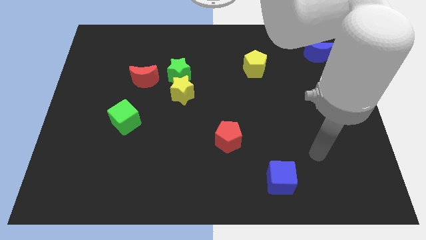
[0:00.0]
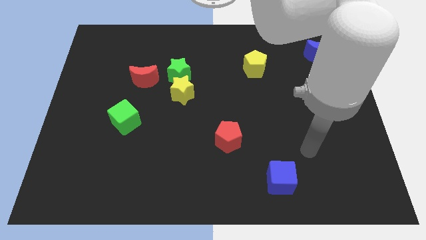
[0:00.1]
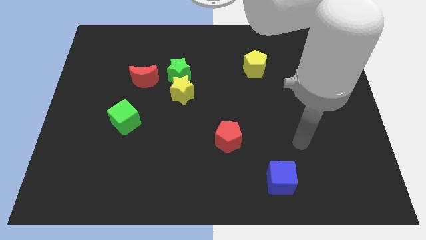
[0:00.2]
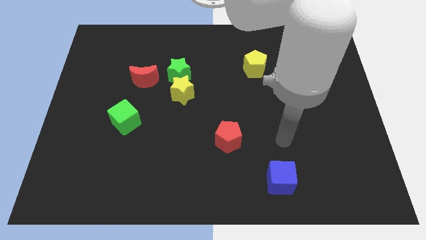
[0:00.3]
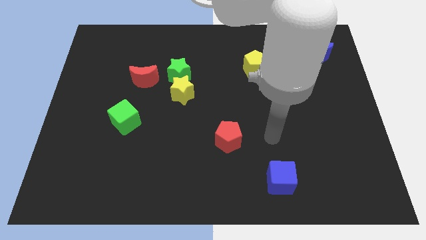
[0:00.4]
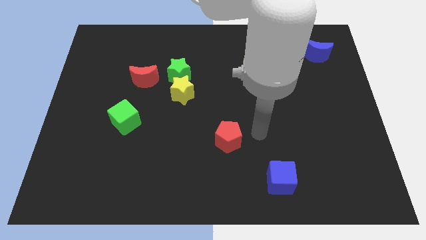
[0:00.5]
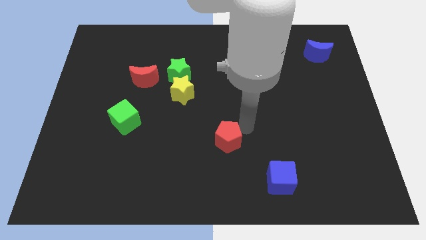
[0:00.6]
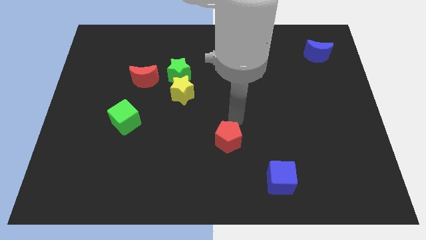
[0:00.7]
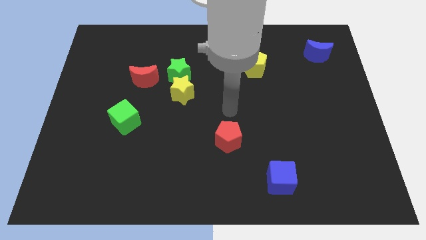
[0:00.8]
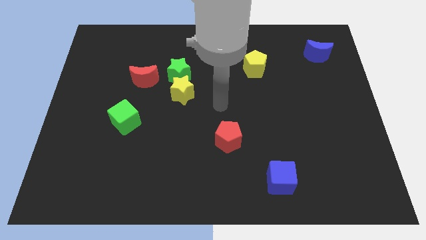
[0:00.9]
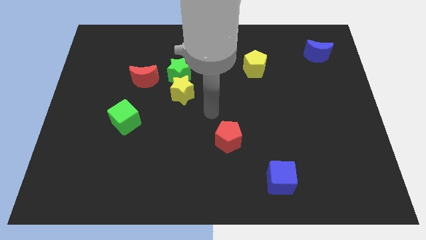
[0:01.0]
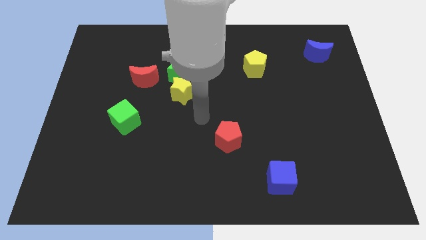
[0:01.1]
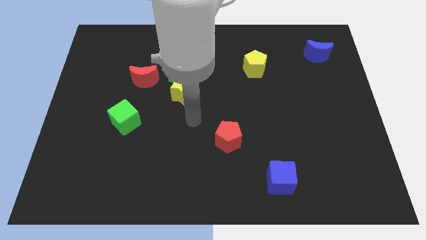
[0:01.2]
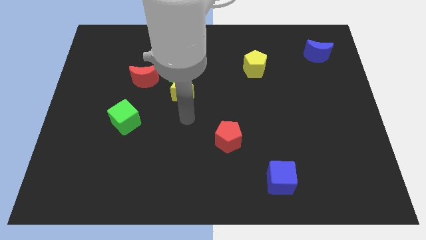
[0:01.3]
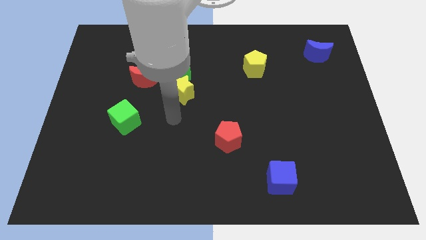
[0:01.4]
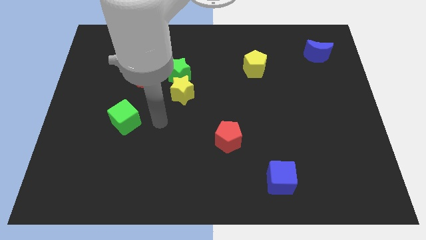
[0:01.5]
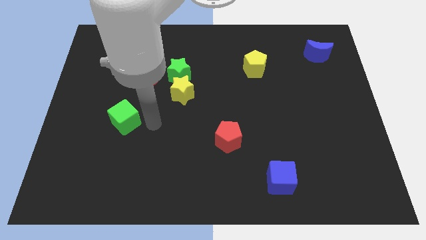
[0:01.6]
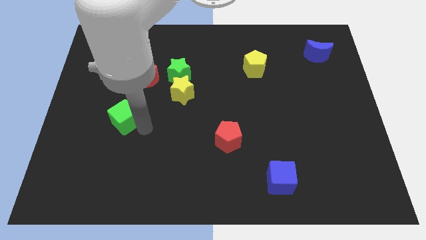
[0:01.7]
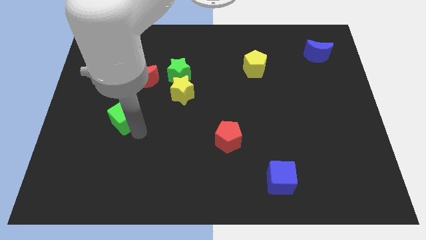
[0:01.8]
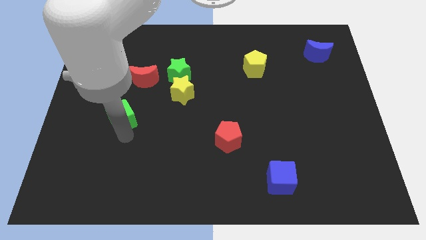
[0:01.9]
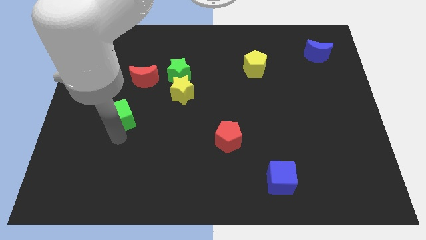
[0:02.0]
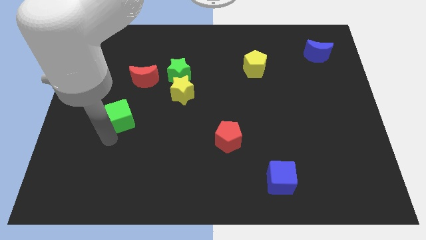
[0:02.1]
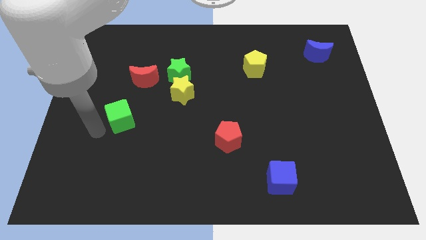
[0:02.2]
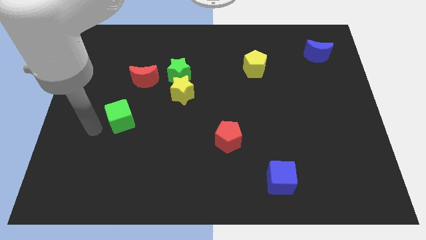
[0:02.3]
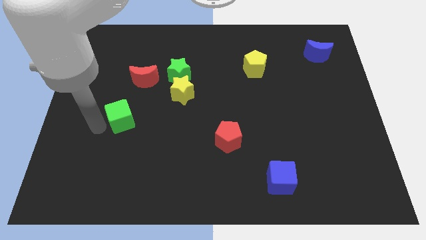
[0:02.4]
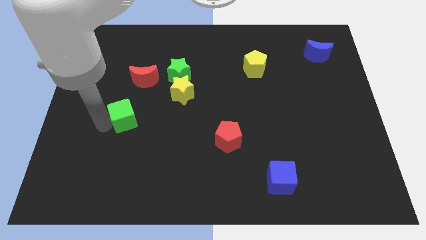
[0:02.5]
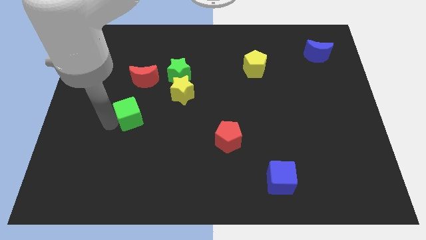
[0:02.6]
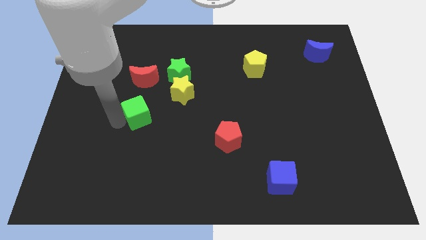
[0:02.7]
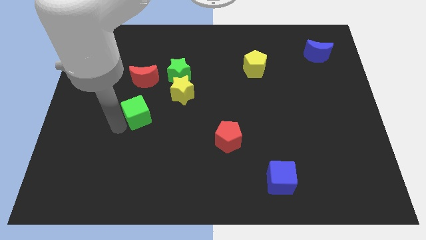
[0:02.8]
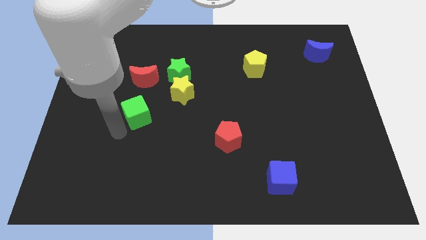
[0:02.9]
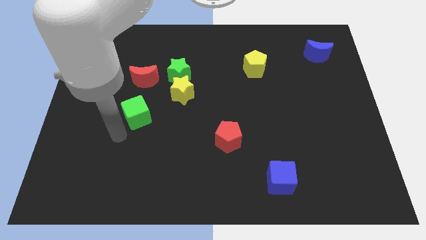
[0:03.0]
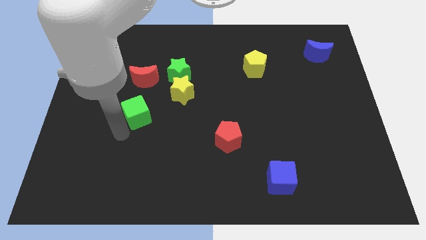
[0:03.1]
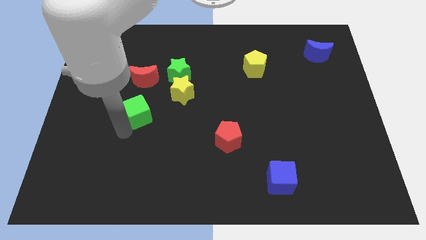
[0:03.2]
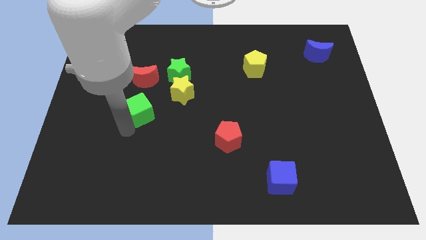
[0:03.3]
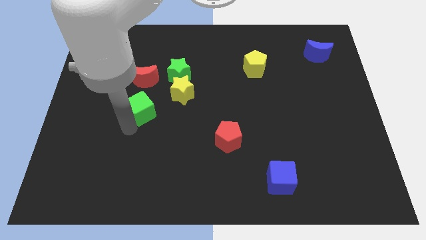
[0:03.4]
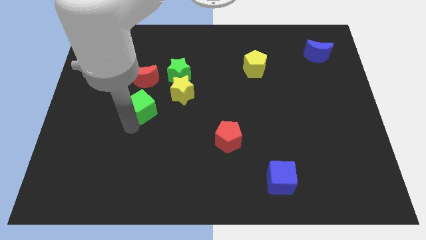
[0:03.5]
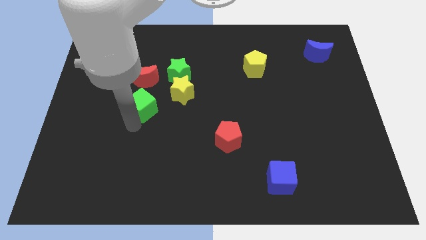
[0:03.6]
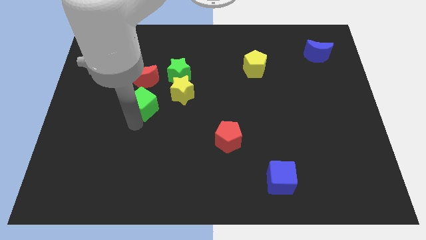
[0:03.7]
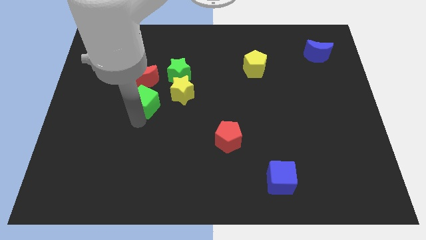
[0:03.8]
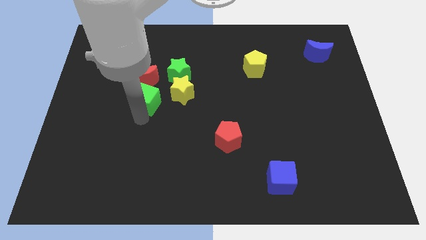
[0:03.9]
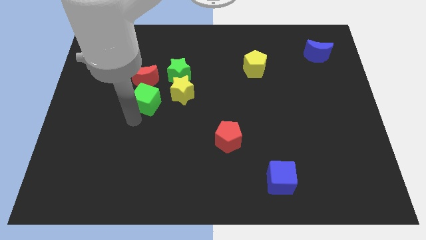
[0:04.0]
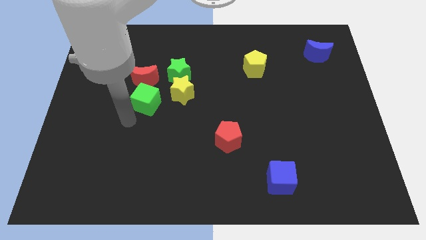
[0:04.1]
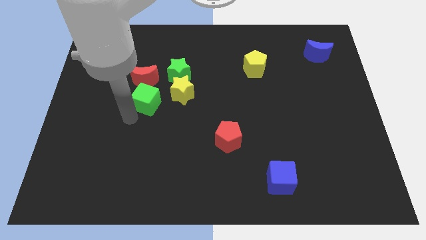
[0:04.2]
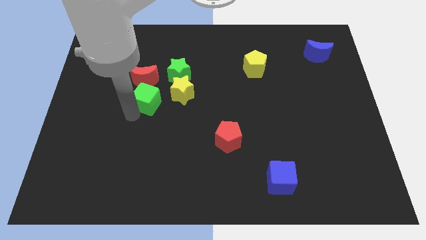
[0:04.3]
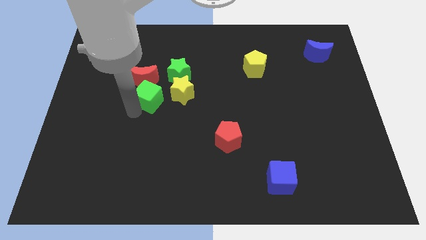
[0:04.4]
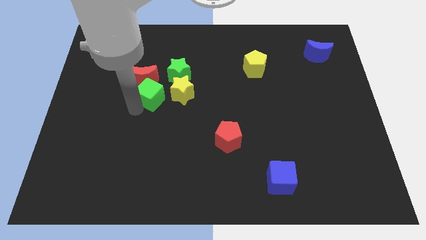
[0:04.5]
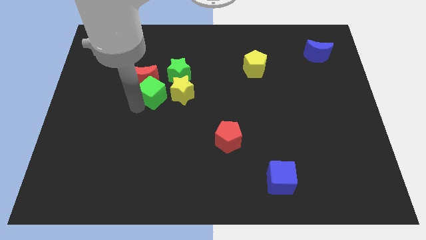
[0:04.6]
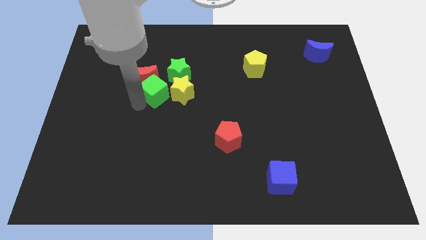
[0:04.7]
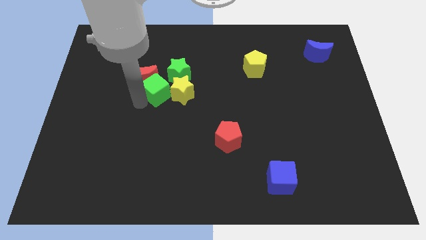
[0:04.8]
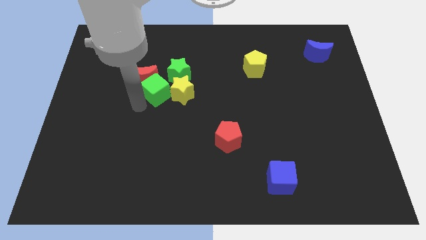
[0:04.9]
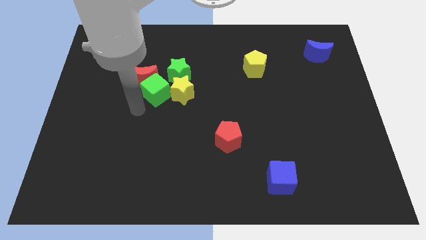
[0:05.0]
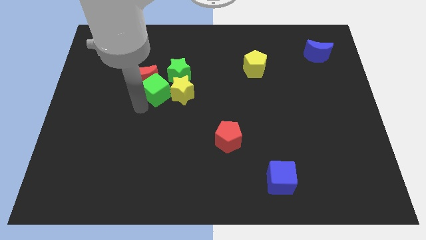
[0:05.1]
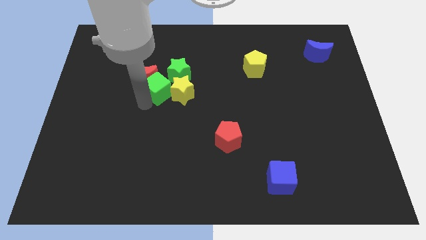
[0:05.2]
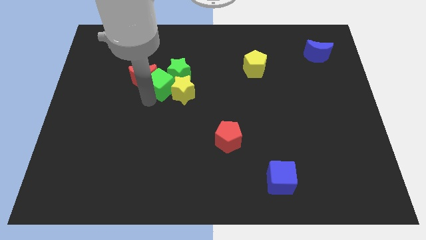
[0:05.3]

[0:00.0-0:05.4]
slide the green cube to the green star

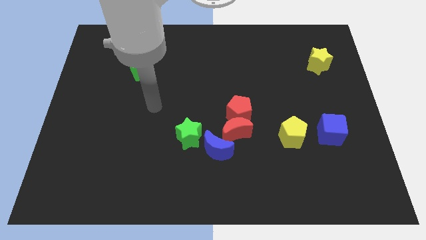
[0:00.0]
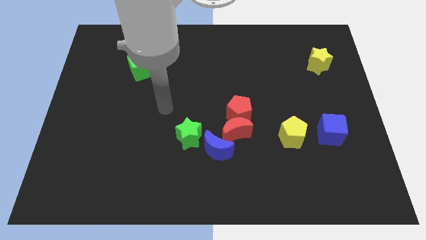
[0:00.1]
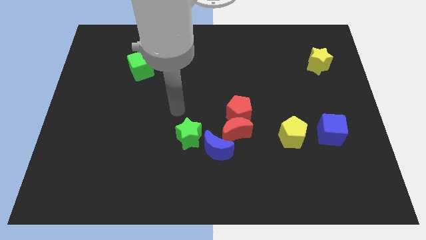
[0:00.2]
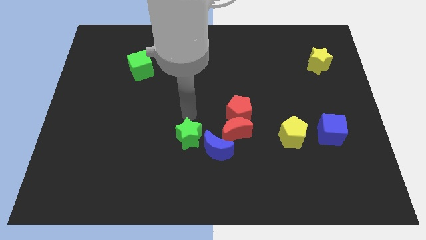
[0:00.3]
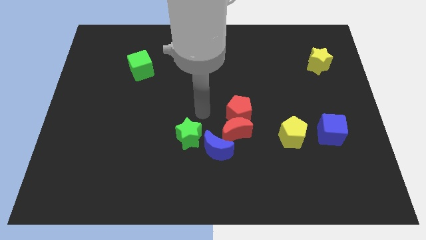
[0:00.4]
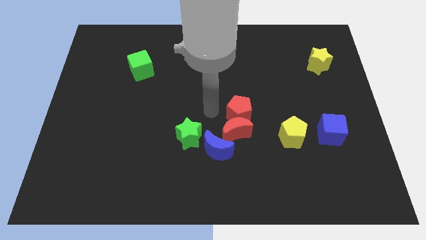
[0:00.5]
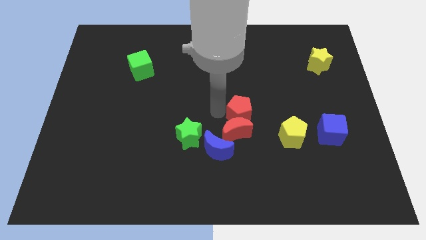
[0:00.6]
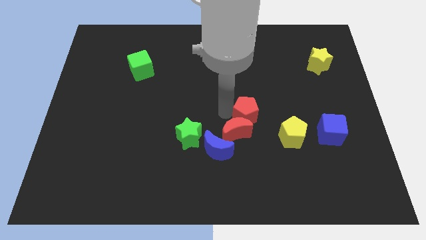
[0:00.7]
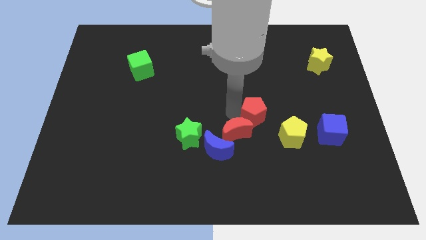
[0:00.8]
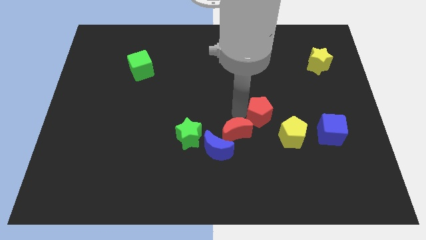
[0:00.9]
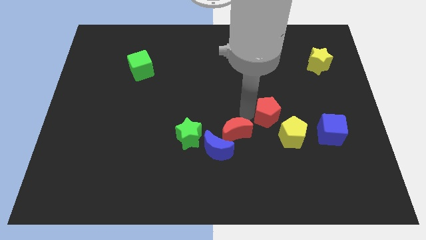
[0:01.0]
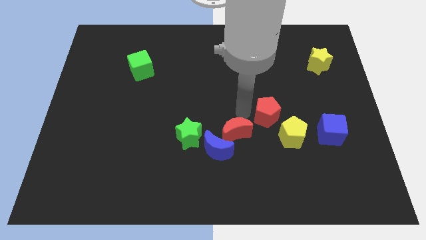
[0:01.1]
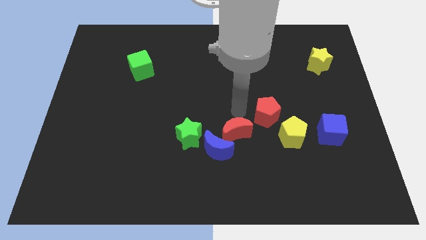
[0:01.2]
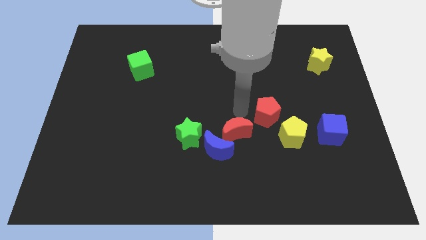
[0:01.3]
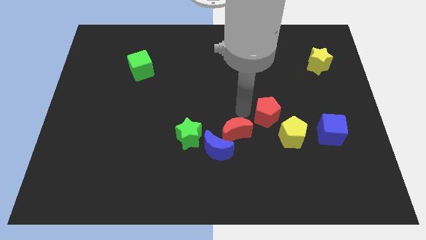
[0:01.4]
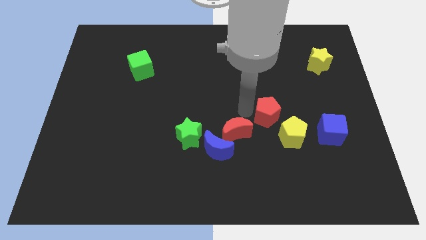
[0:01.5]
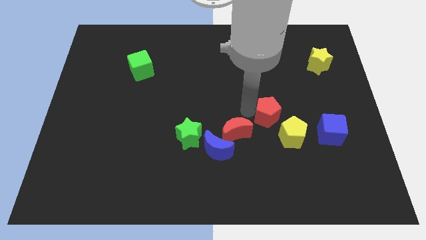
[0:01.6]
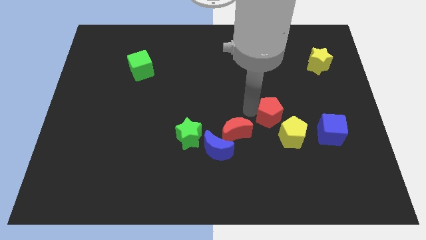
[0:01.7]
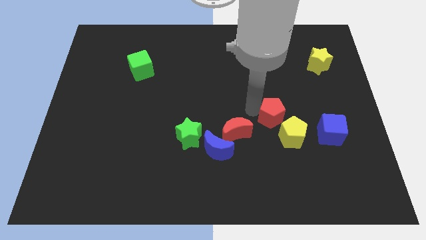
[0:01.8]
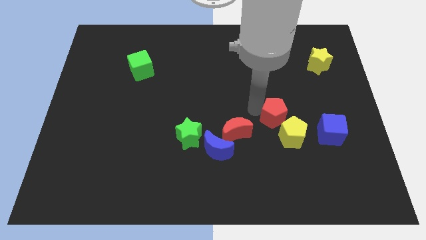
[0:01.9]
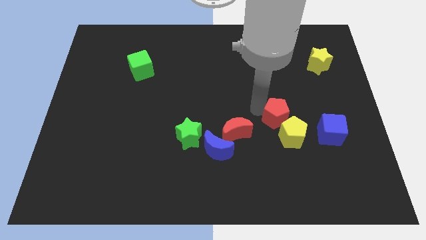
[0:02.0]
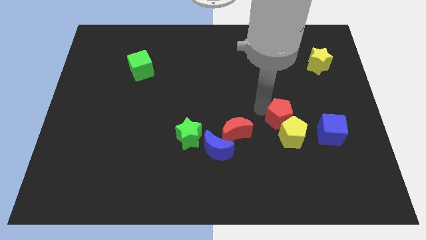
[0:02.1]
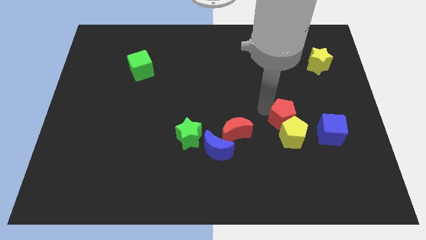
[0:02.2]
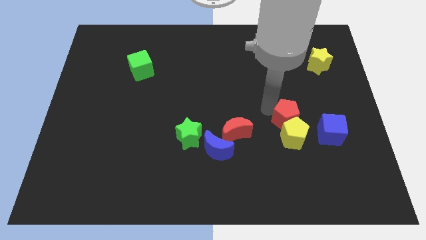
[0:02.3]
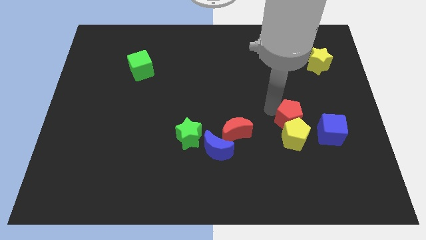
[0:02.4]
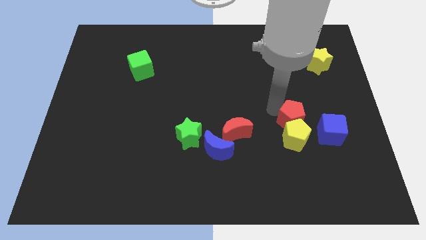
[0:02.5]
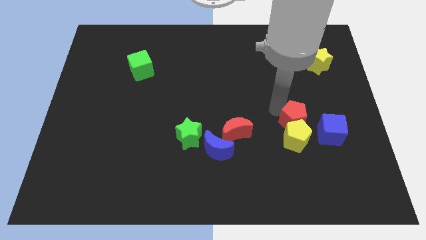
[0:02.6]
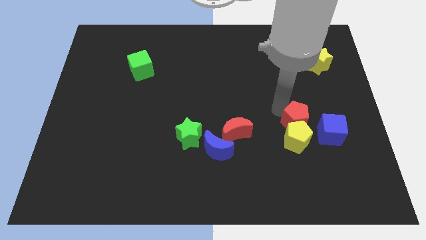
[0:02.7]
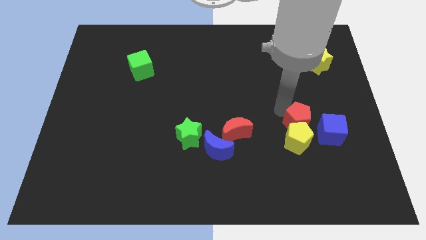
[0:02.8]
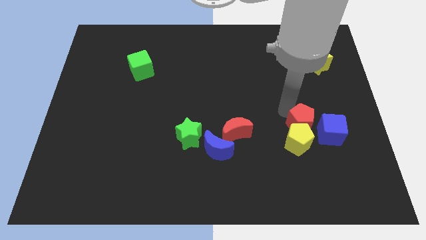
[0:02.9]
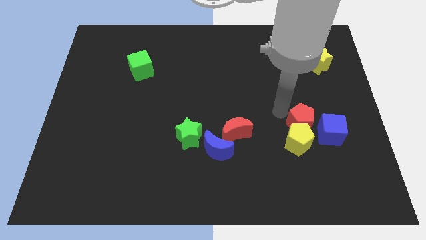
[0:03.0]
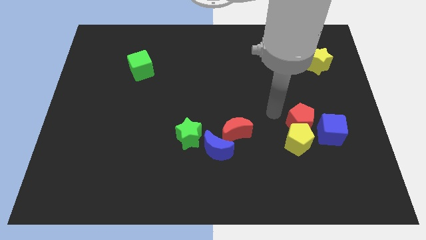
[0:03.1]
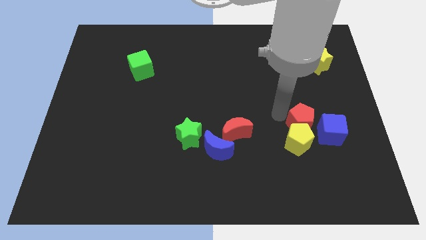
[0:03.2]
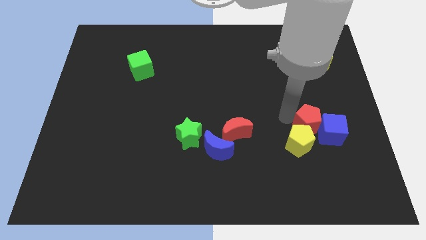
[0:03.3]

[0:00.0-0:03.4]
move the red pentagon towards the blue cube
